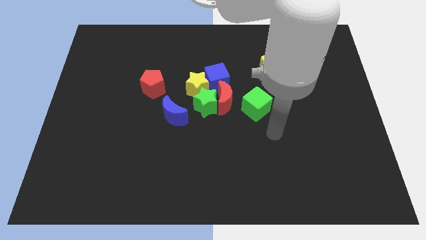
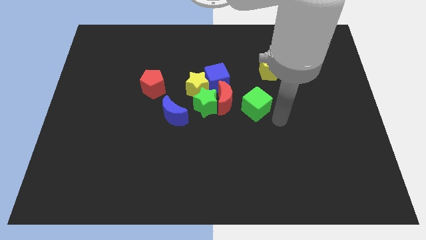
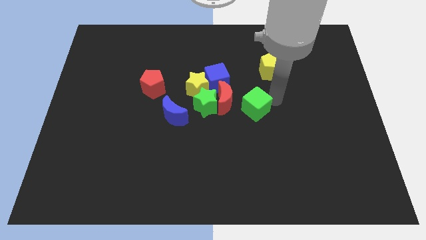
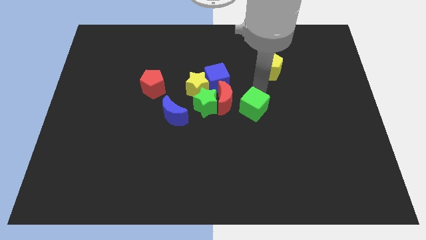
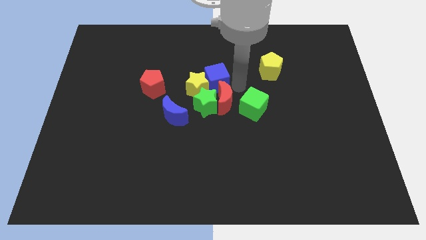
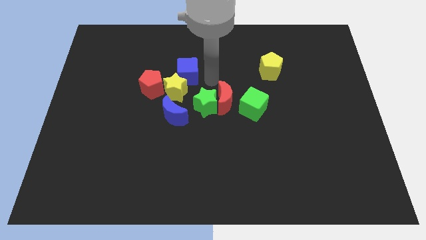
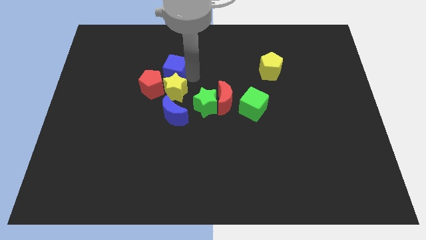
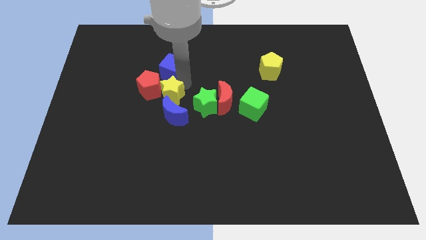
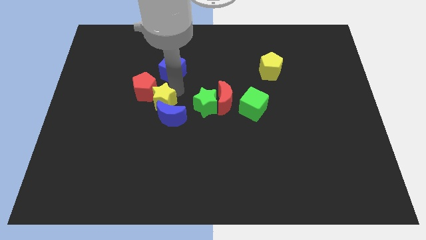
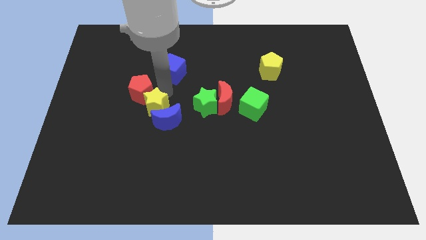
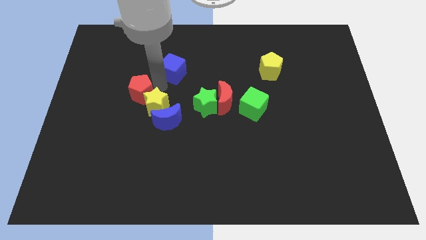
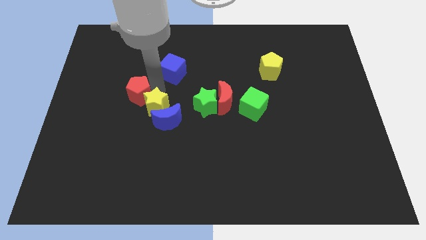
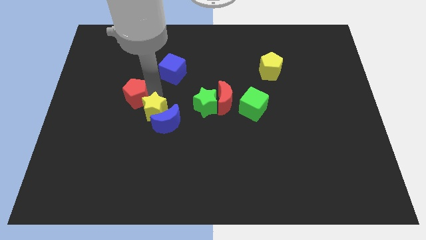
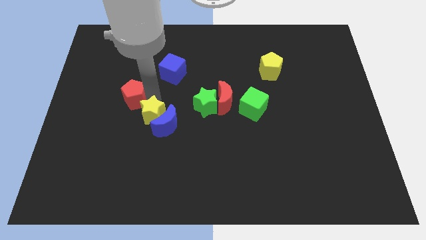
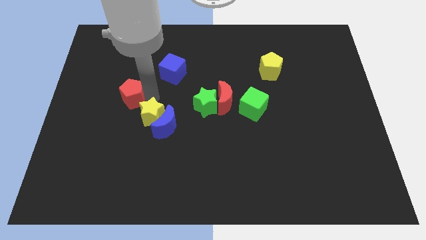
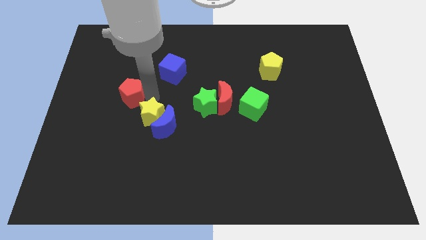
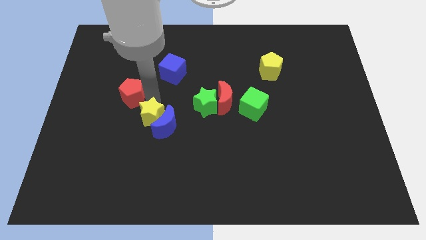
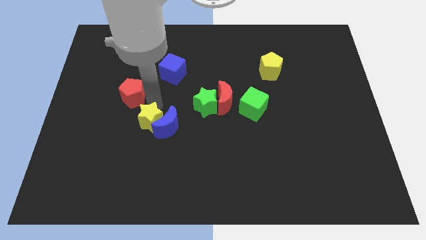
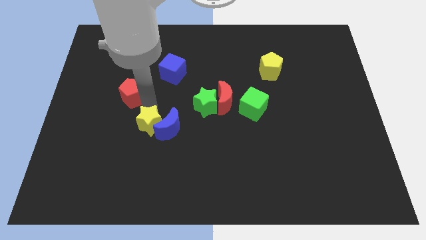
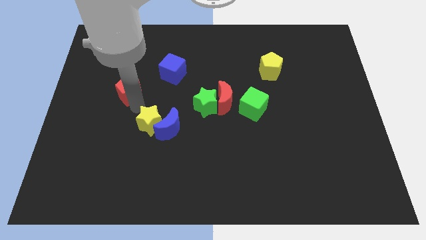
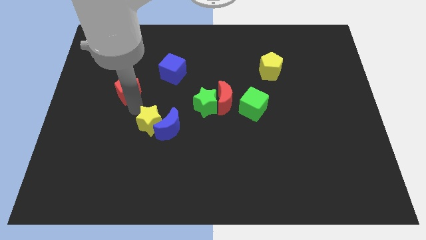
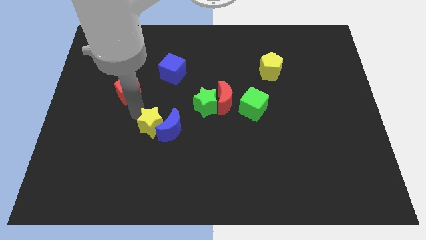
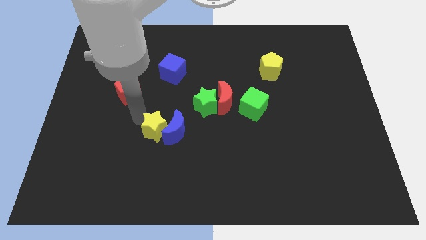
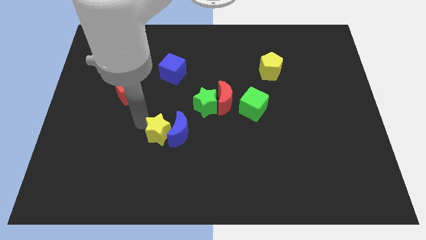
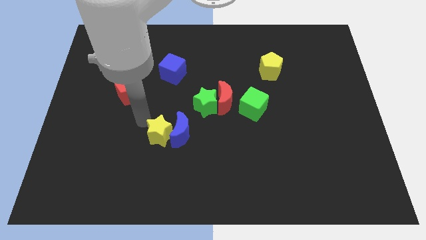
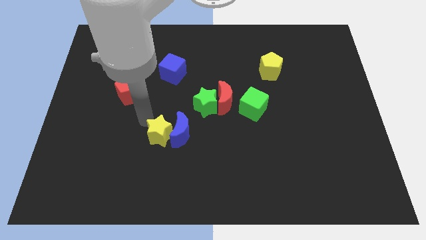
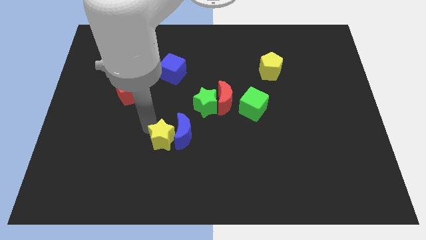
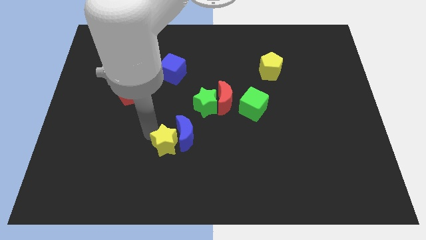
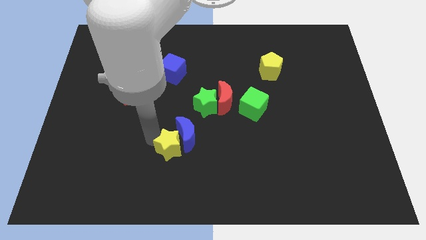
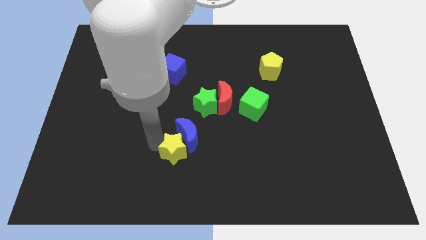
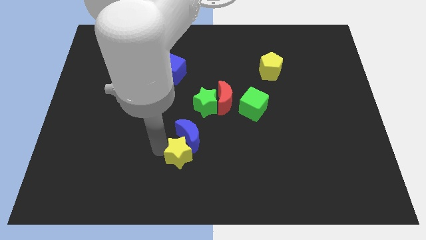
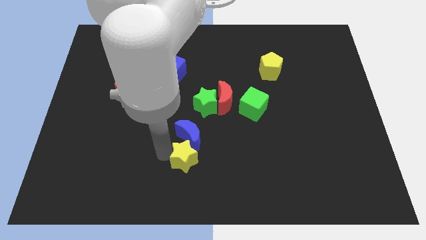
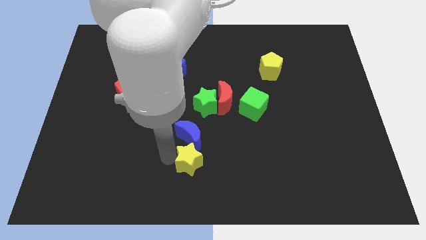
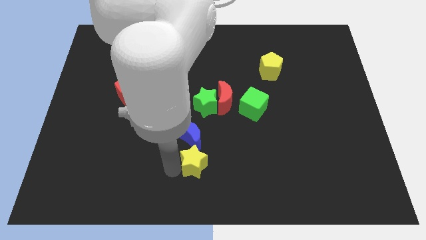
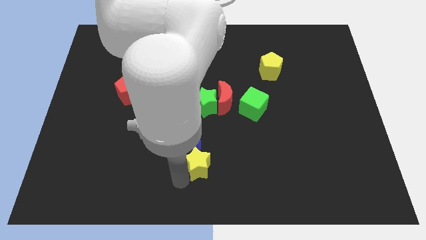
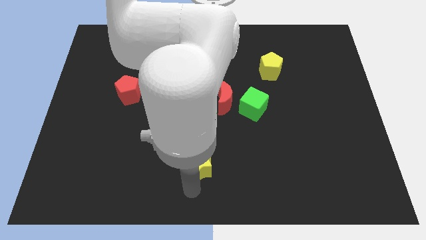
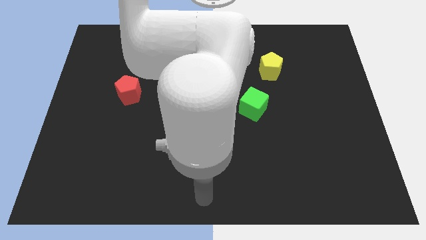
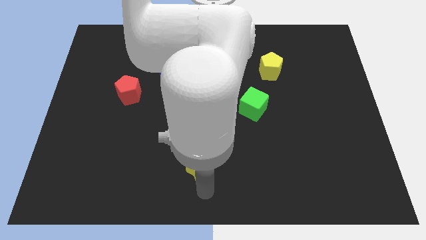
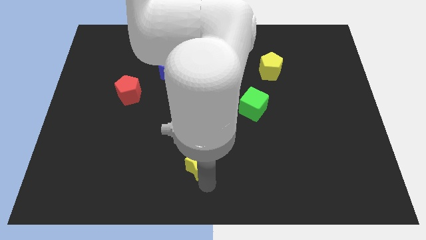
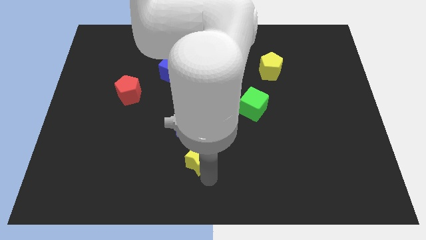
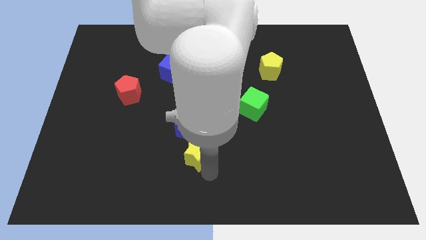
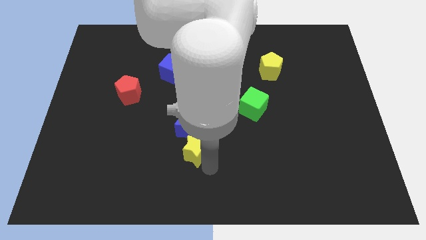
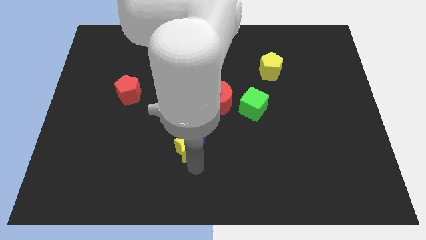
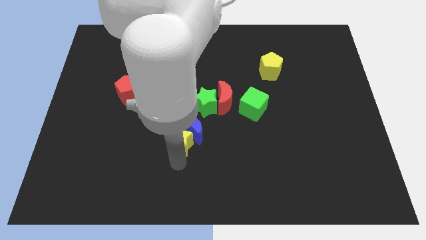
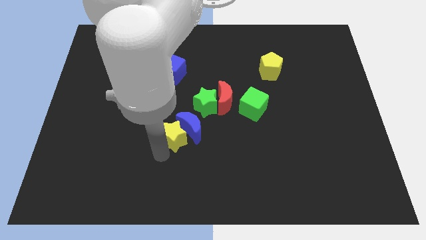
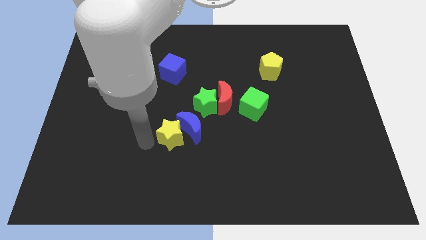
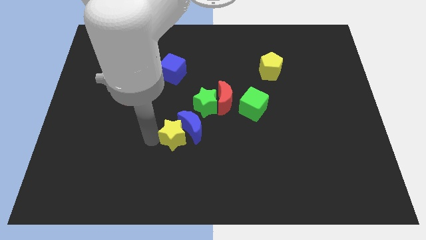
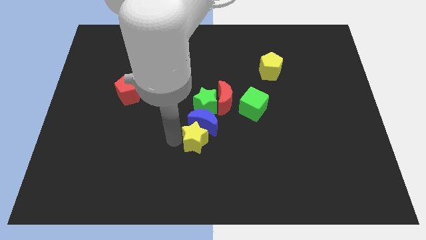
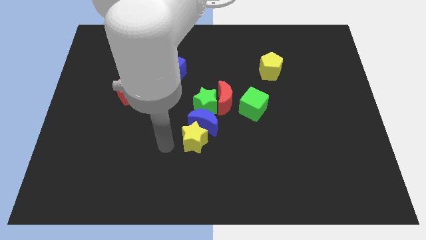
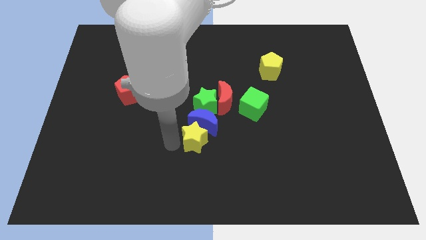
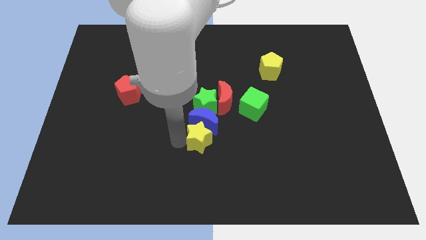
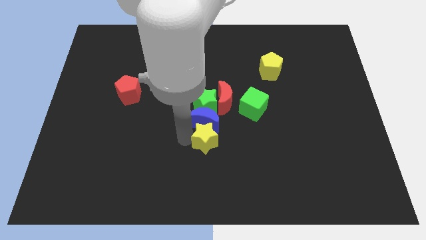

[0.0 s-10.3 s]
push the yellow star to the bottom side of the red moon

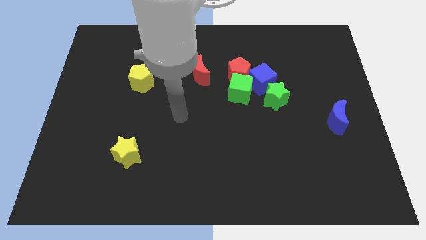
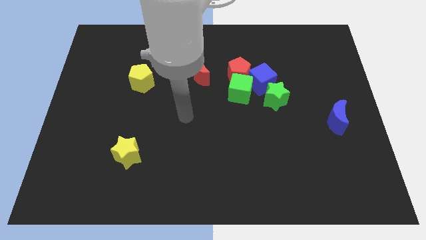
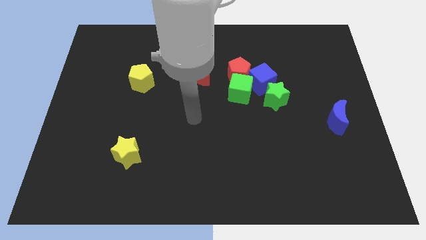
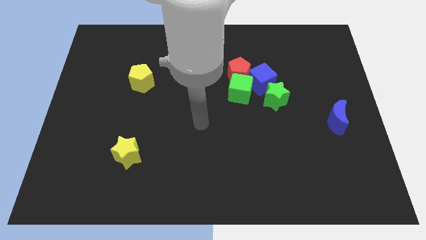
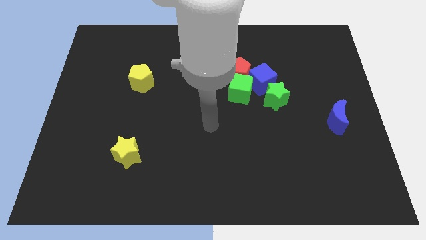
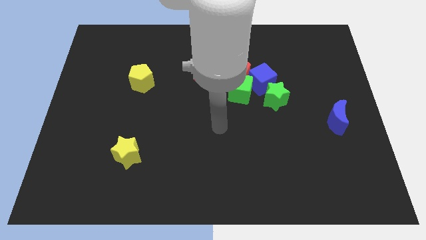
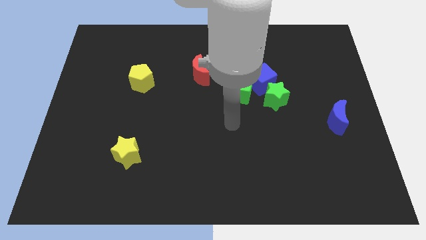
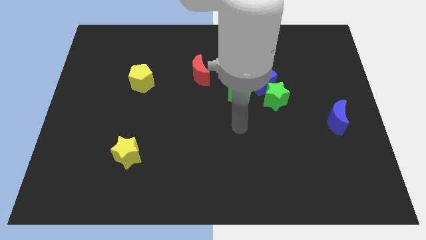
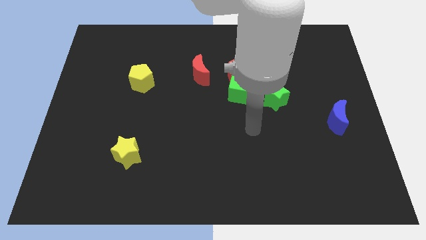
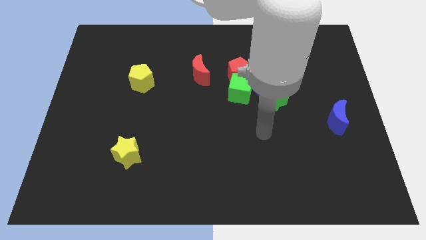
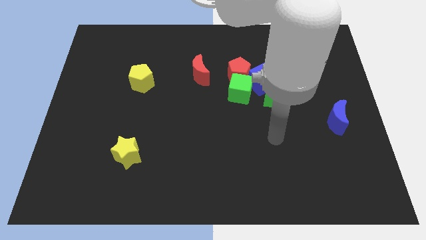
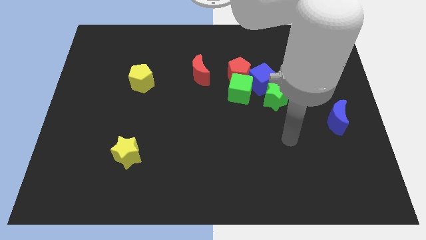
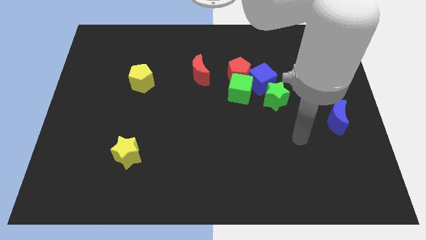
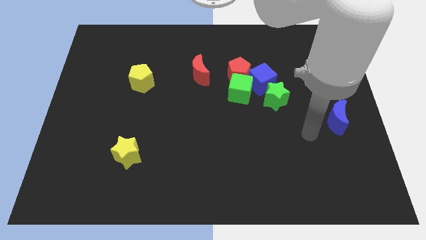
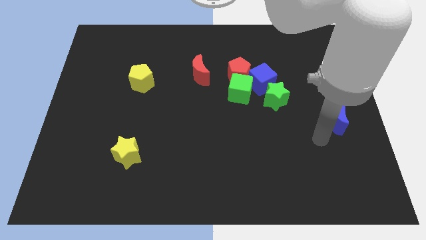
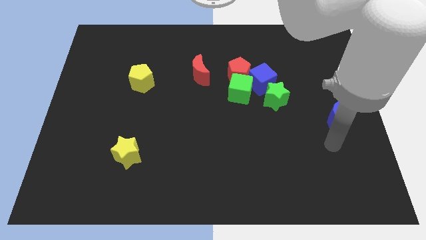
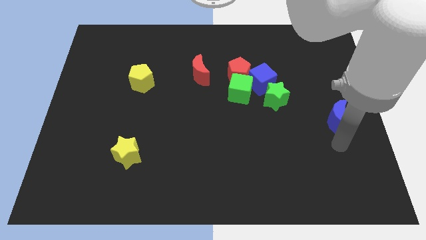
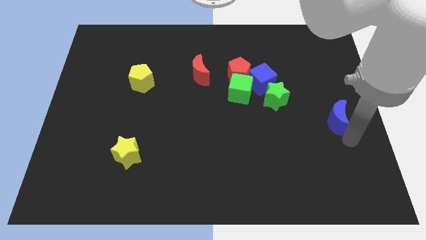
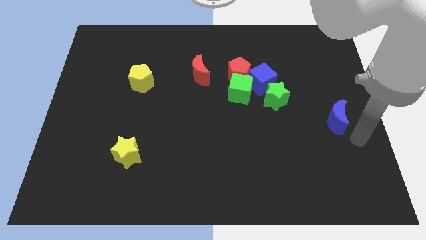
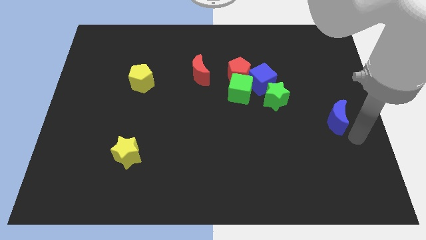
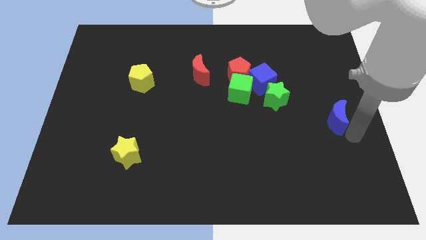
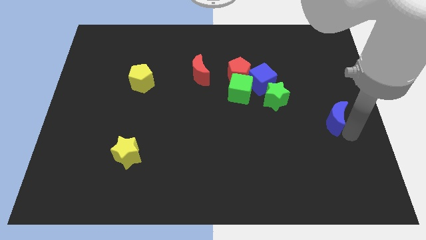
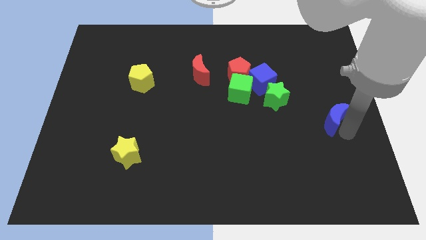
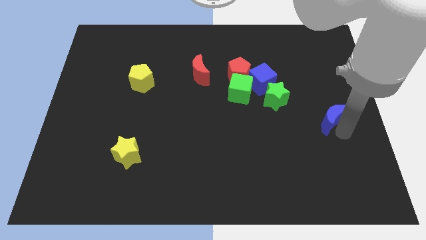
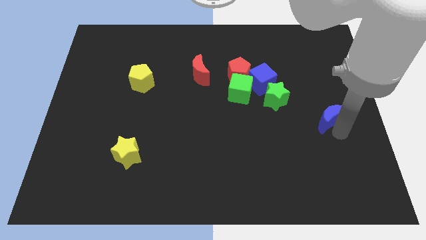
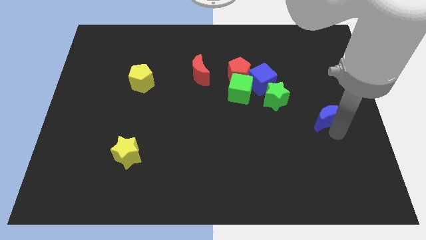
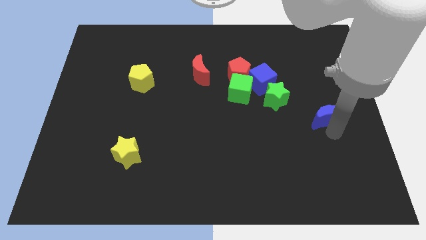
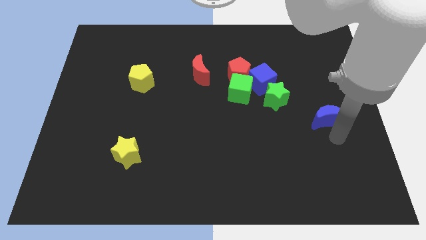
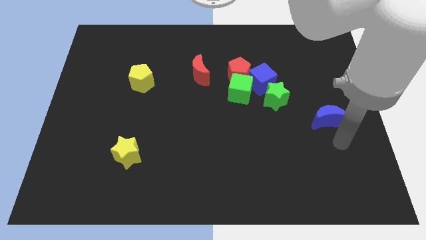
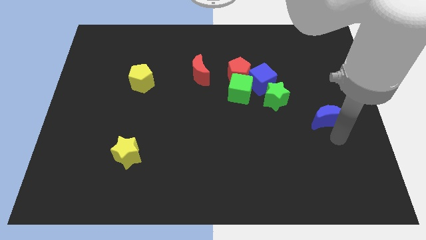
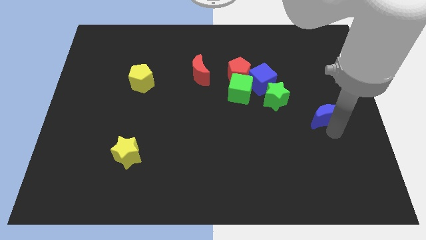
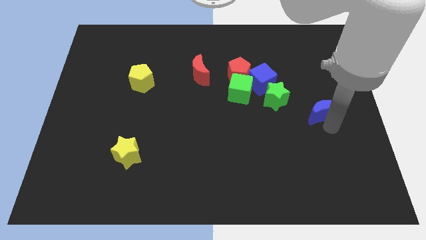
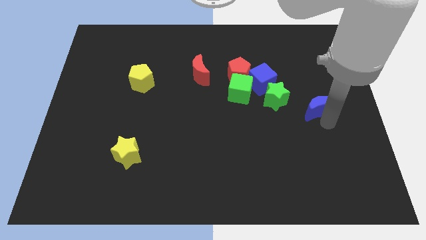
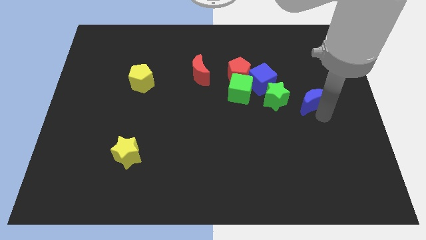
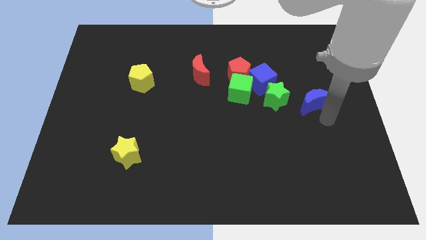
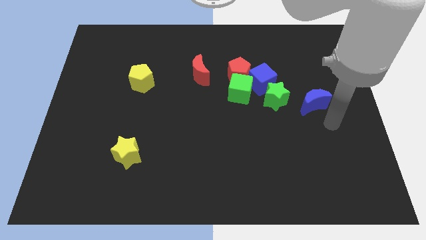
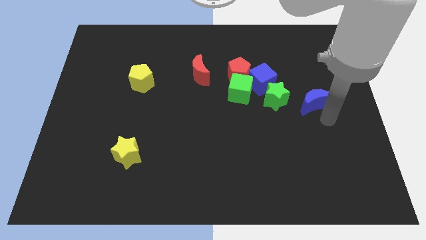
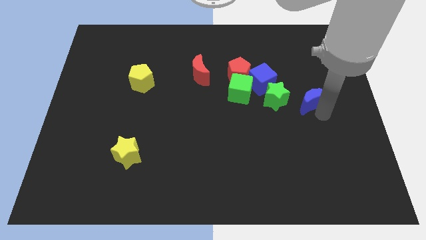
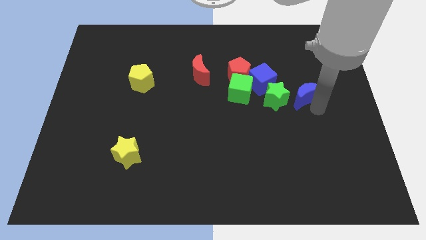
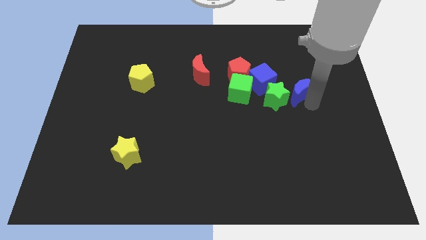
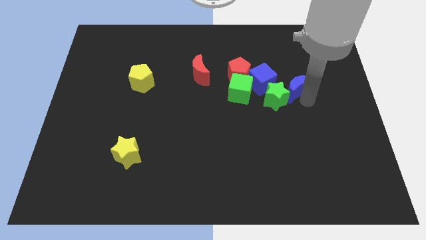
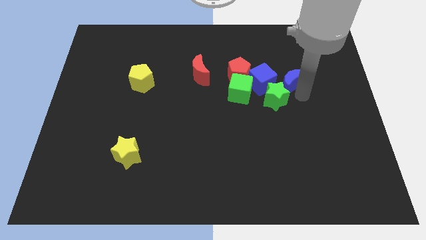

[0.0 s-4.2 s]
push the blue moon above the green star
